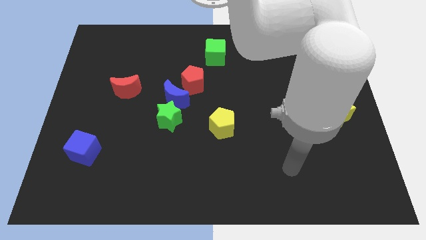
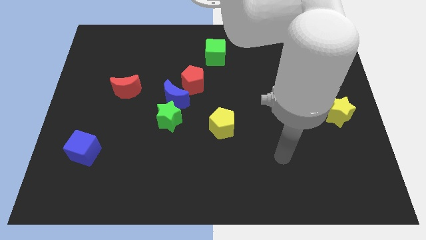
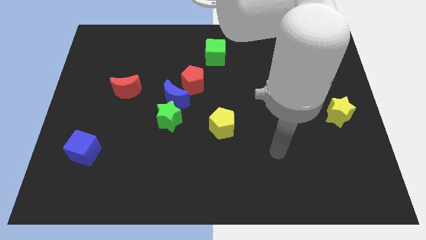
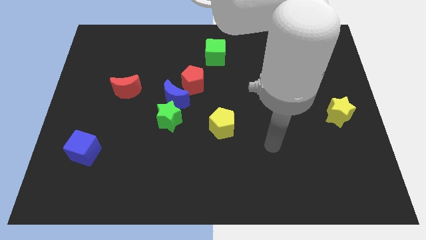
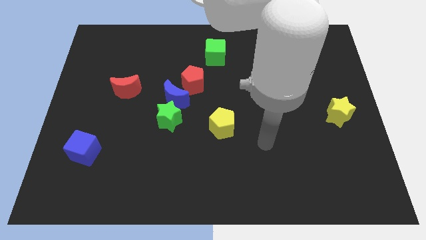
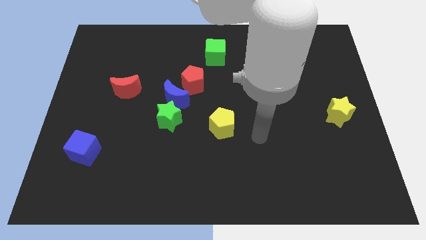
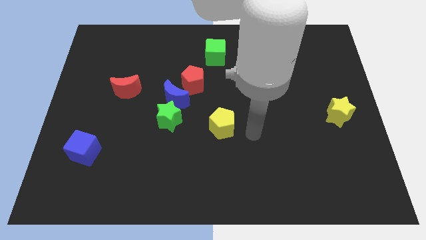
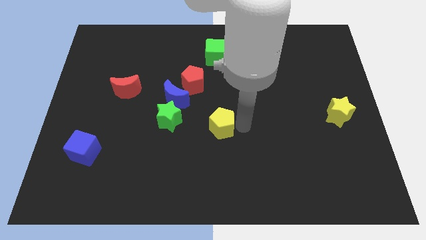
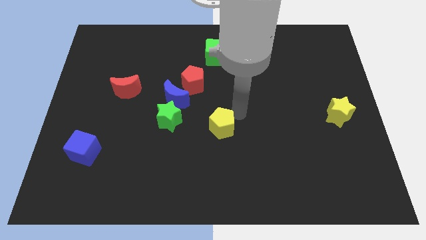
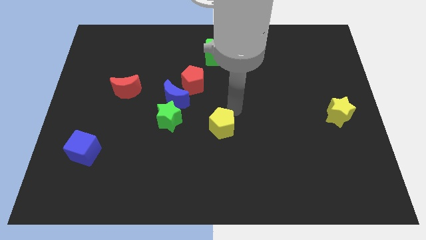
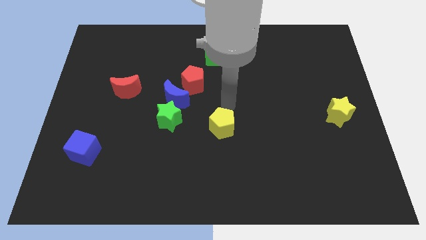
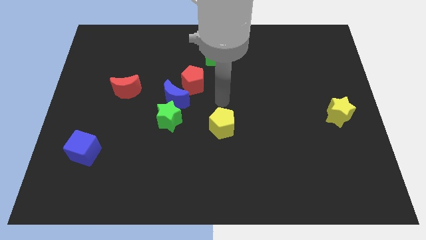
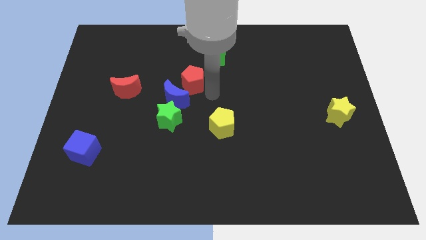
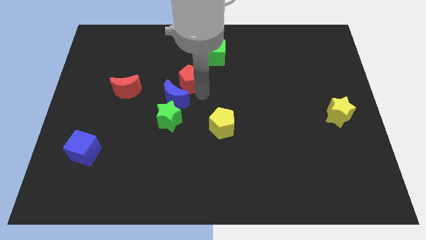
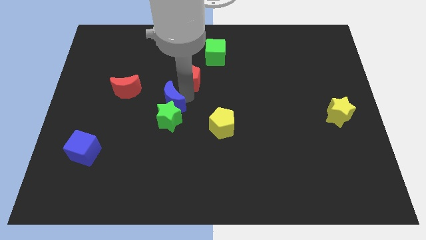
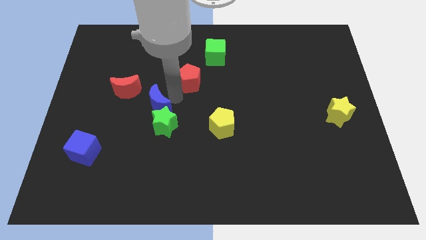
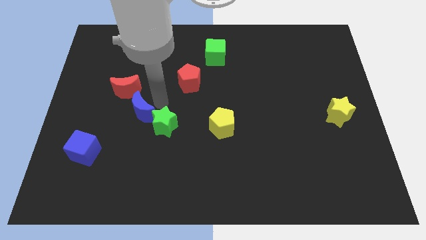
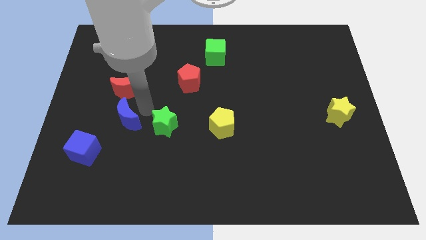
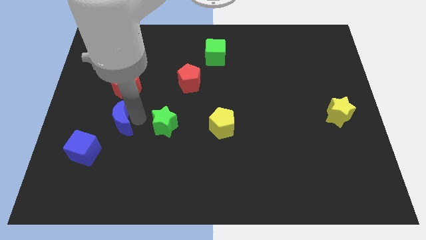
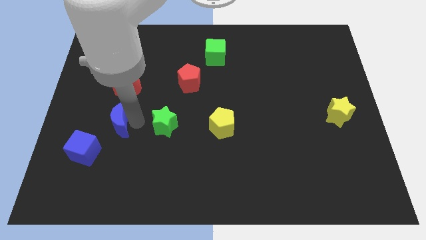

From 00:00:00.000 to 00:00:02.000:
pull the green star apart from the blue moon

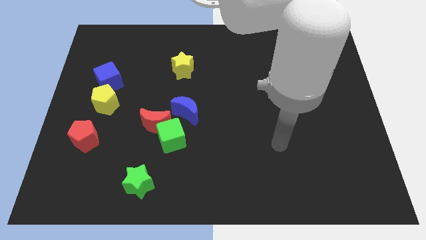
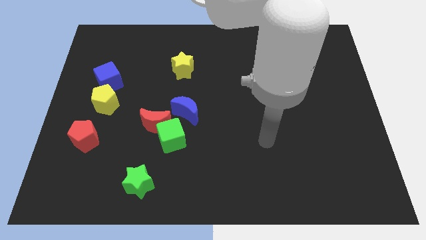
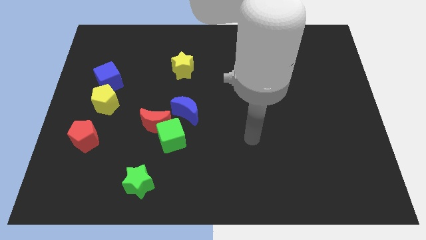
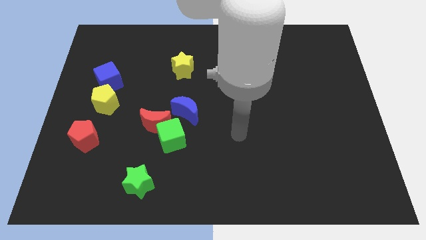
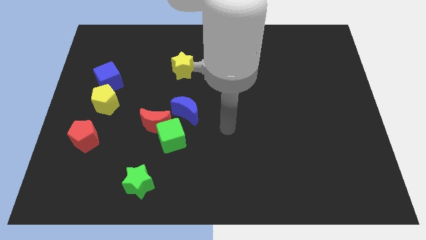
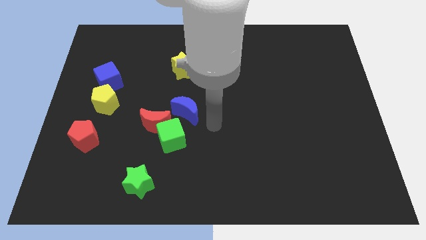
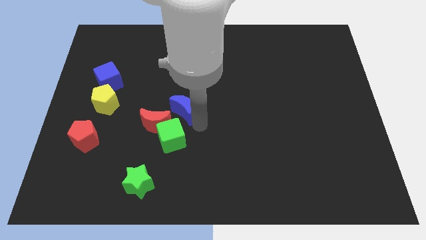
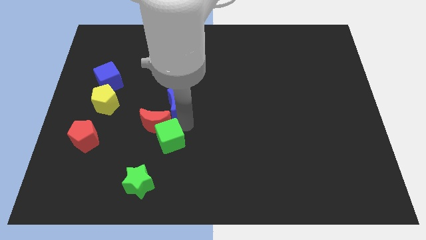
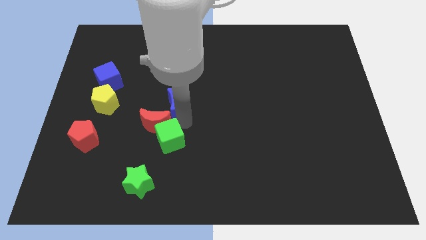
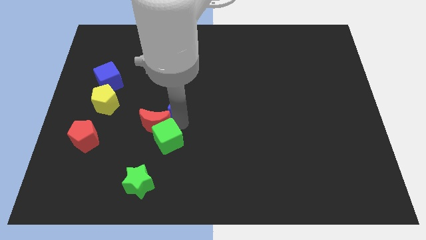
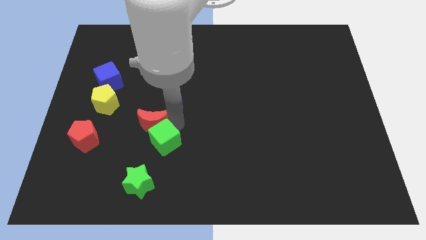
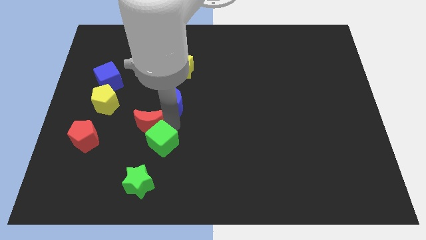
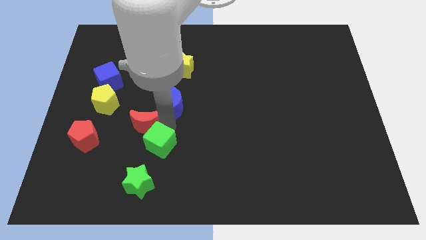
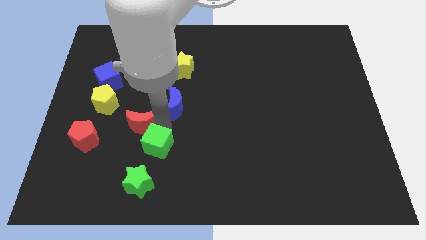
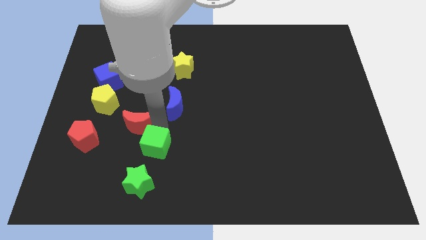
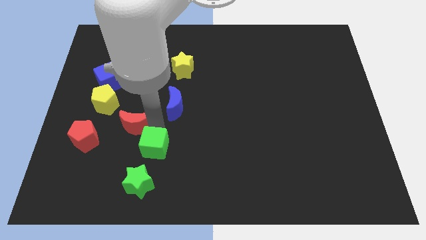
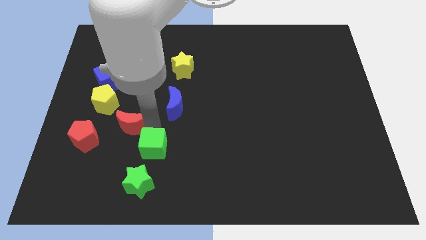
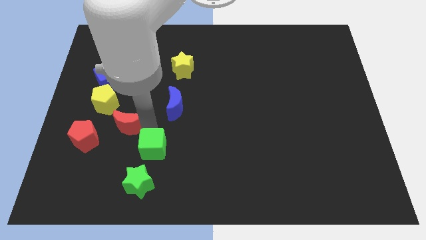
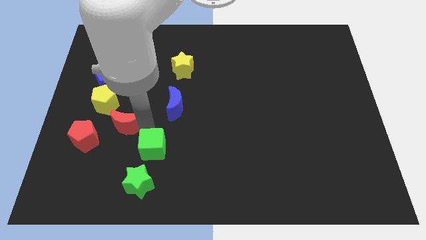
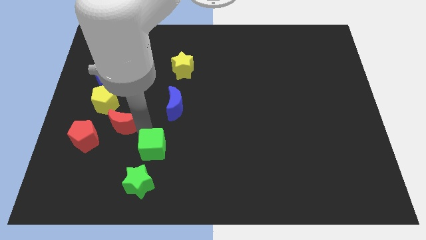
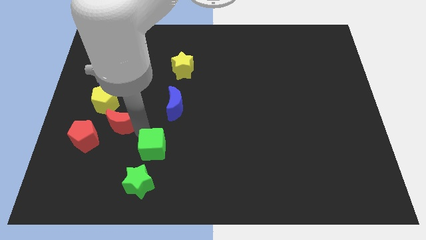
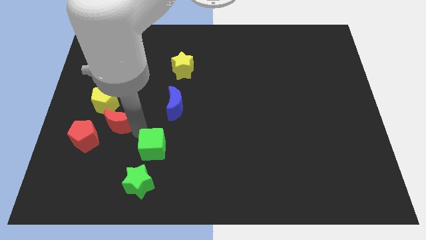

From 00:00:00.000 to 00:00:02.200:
separate the red moon from the green cube and blue moon

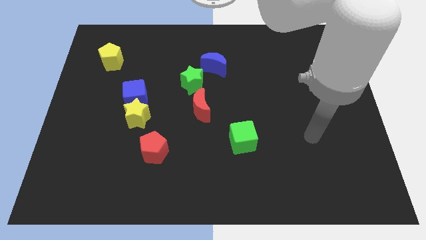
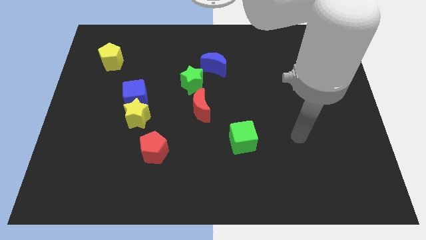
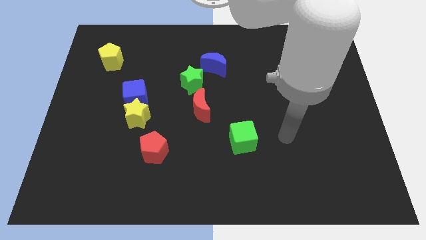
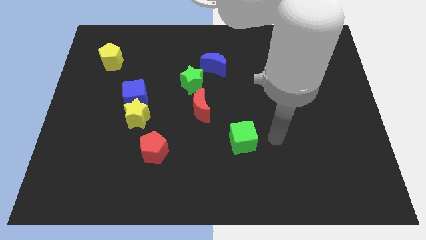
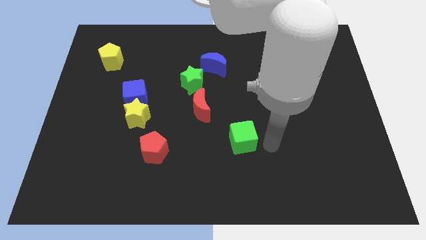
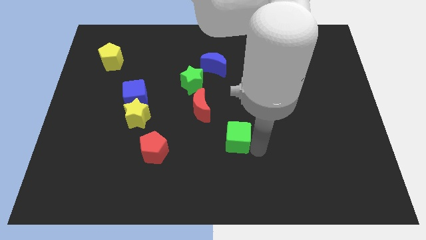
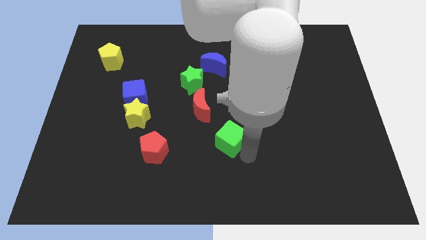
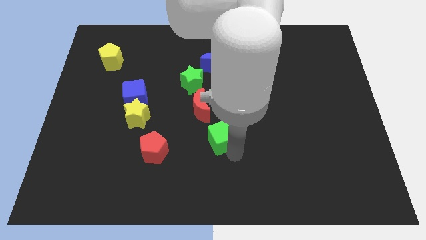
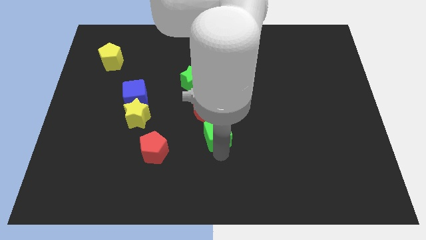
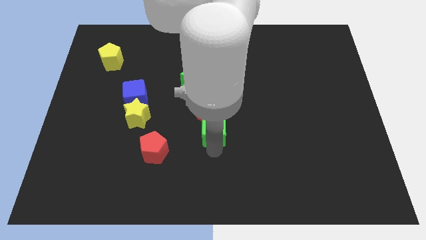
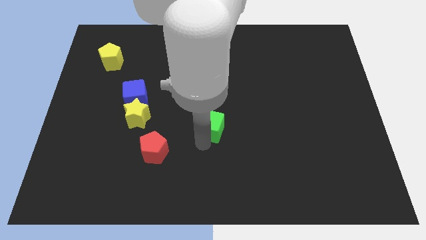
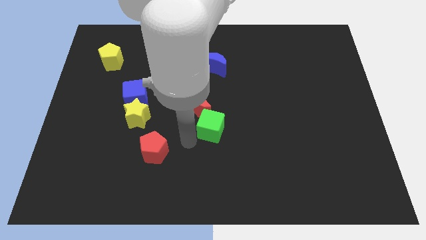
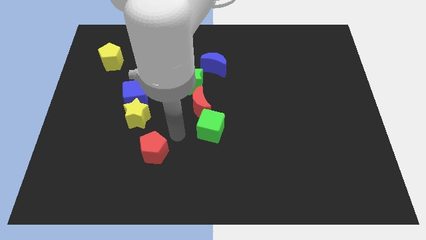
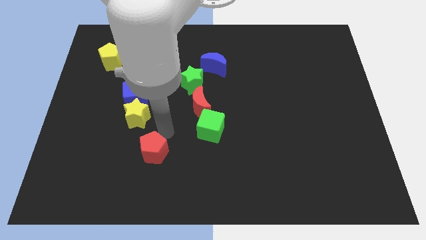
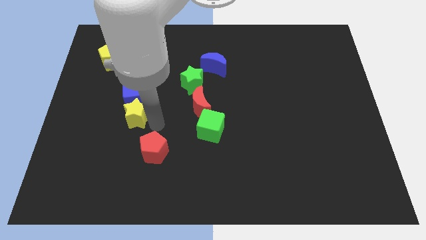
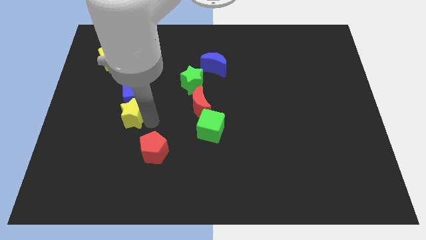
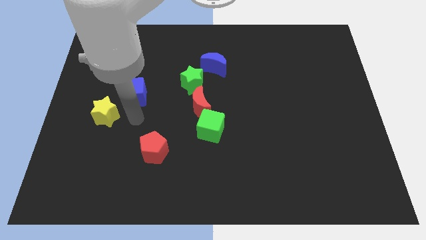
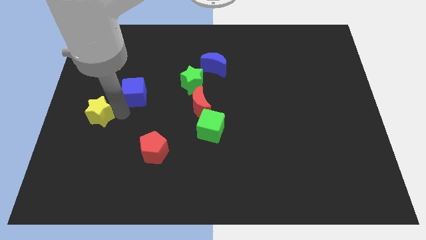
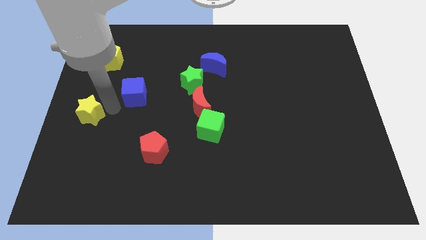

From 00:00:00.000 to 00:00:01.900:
pull the blue cube apart from the yellow star

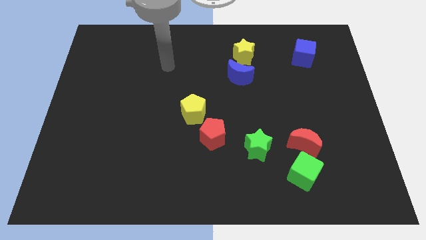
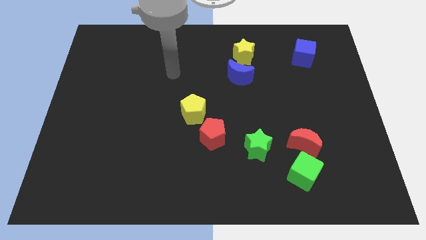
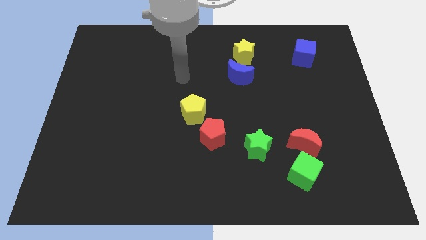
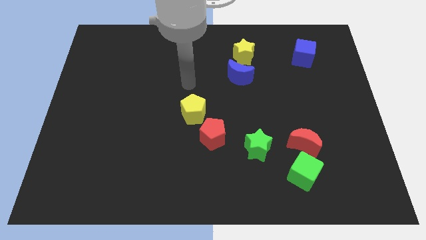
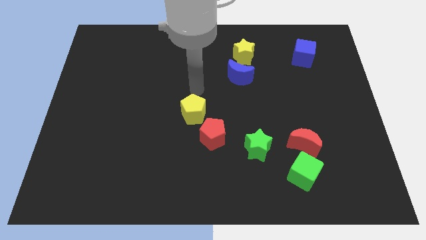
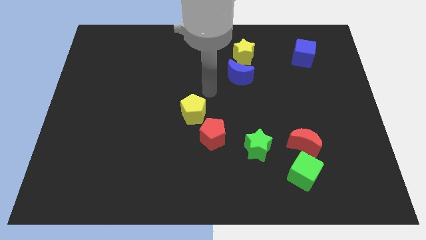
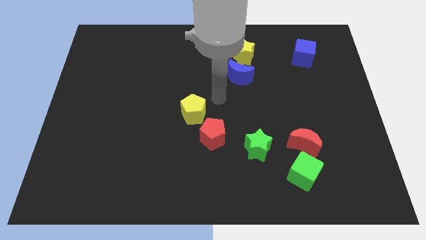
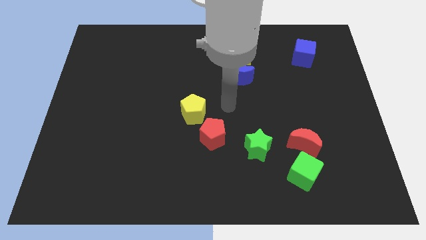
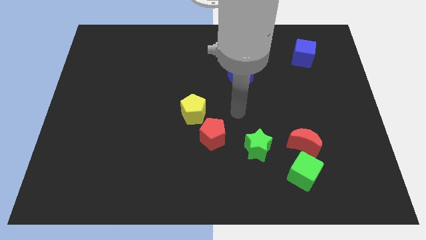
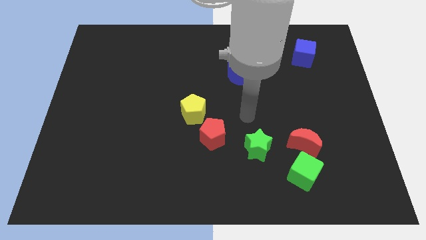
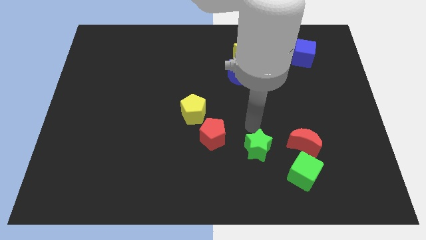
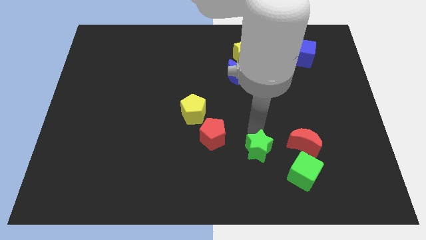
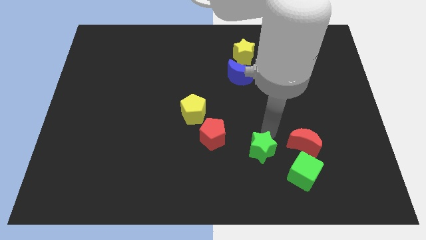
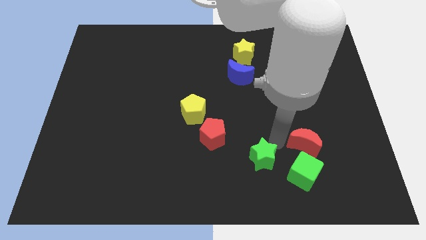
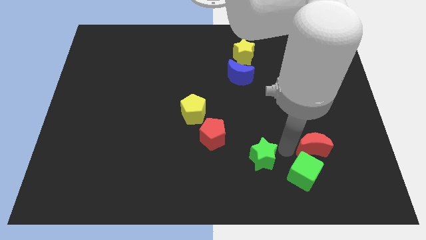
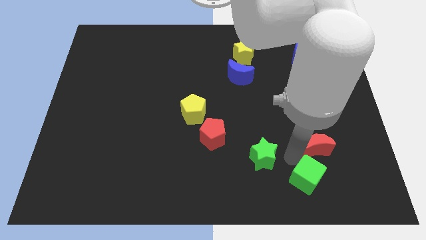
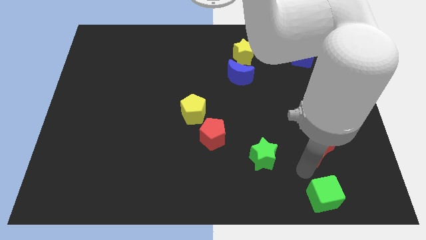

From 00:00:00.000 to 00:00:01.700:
separate the red moon from the green cube

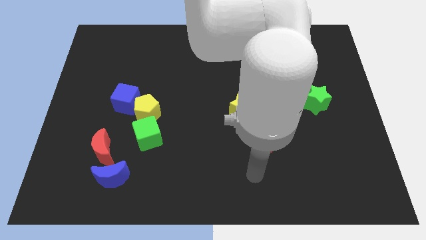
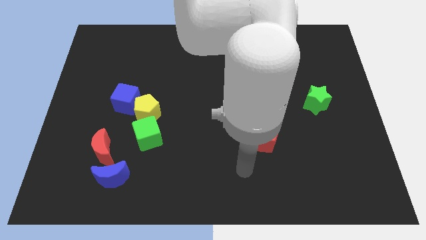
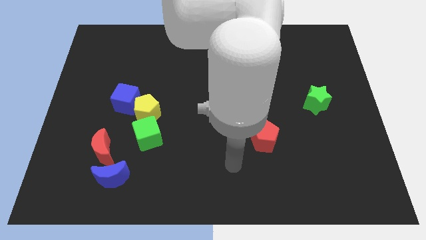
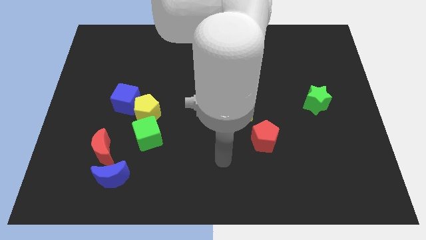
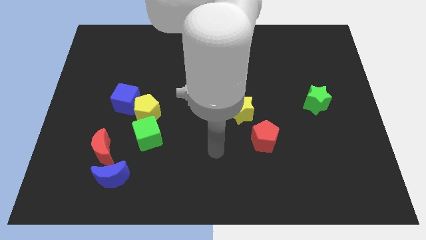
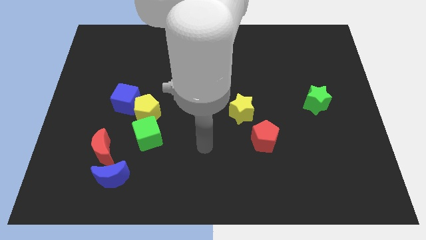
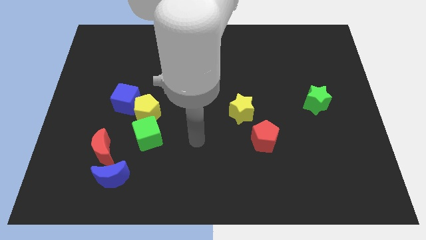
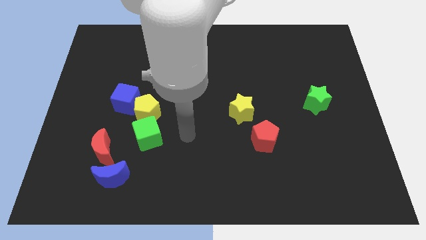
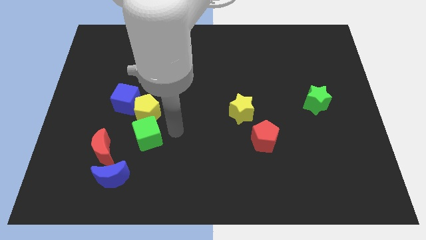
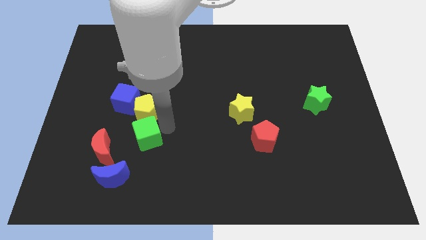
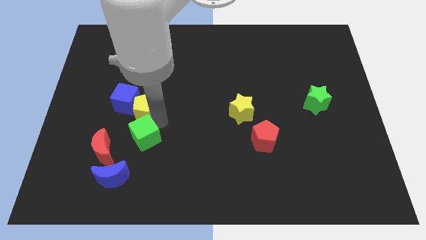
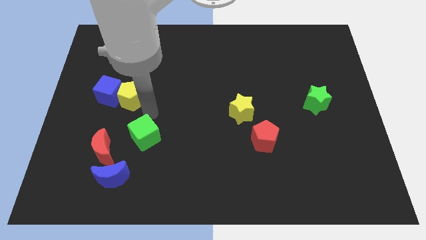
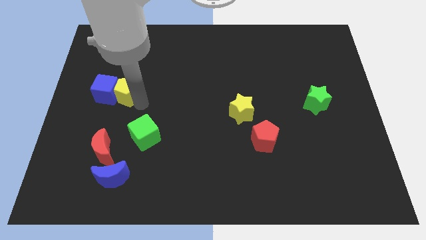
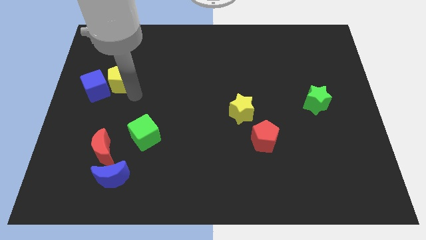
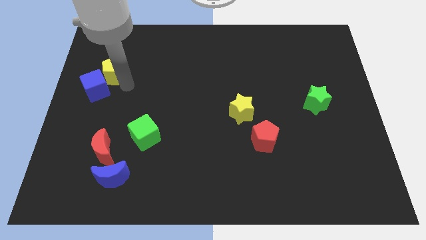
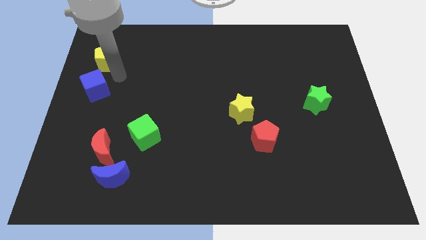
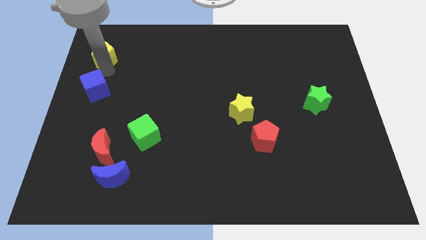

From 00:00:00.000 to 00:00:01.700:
separate the blue cube from the yellow pentagon
